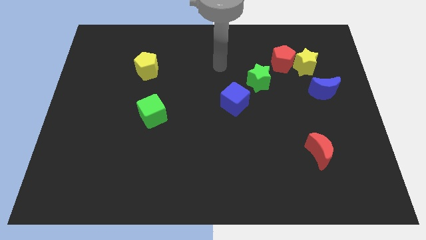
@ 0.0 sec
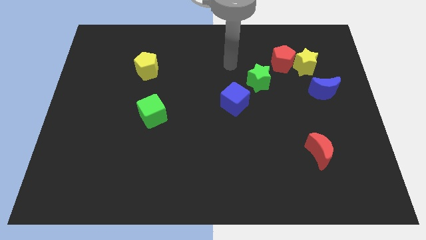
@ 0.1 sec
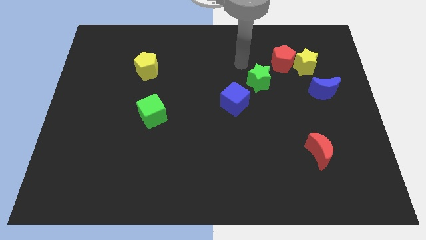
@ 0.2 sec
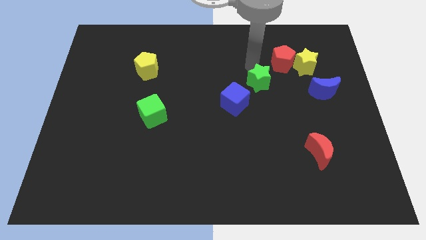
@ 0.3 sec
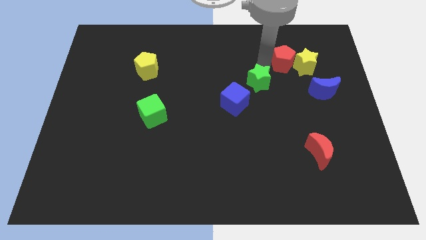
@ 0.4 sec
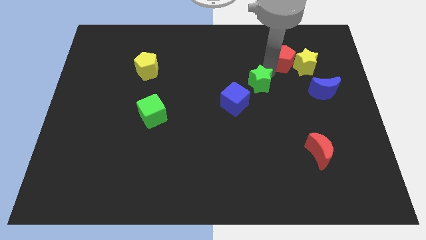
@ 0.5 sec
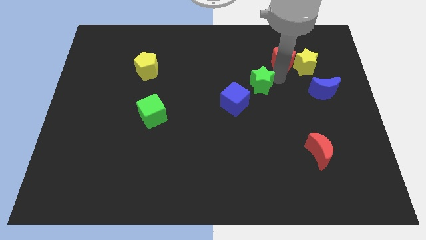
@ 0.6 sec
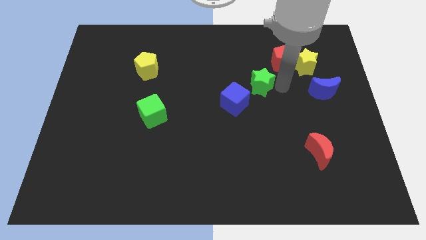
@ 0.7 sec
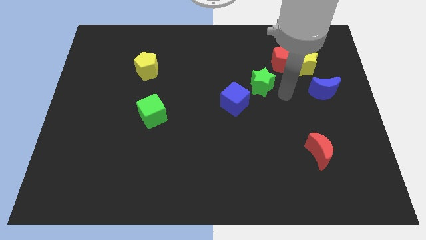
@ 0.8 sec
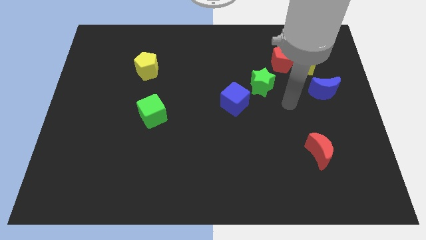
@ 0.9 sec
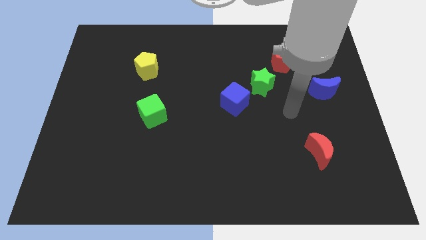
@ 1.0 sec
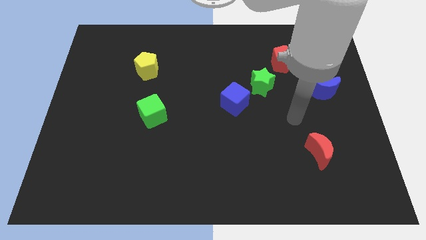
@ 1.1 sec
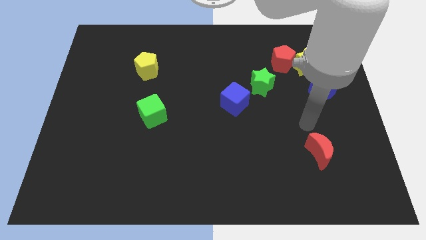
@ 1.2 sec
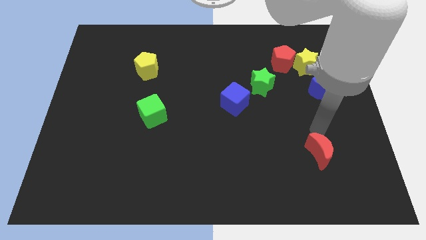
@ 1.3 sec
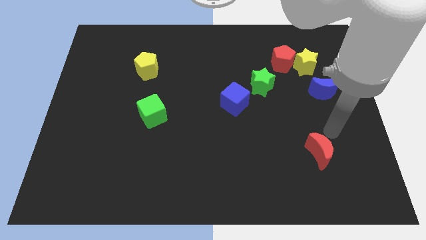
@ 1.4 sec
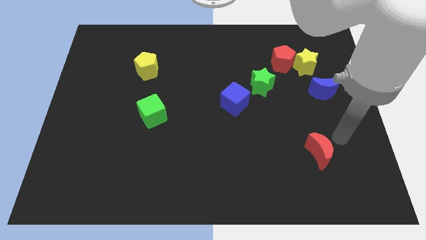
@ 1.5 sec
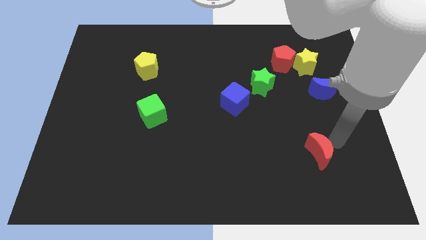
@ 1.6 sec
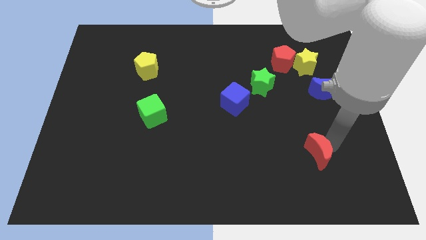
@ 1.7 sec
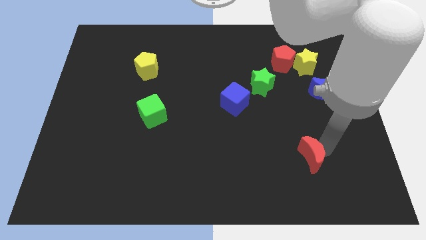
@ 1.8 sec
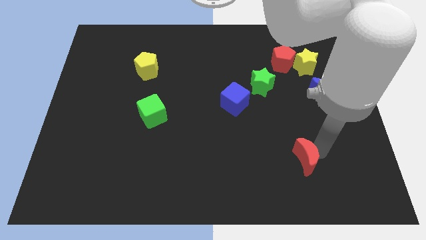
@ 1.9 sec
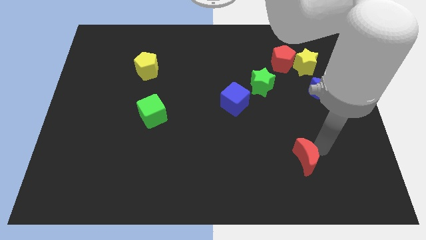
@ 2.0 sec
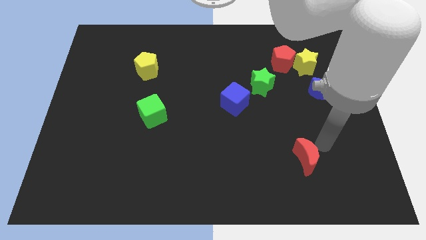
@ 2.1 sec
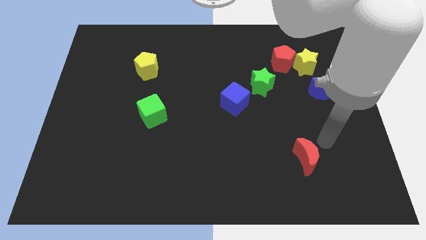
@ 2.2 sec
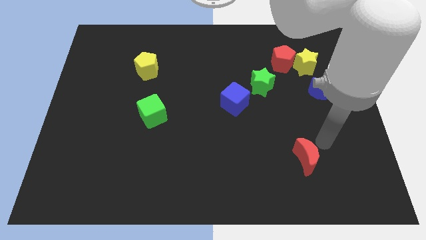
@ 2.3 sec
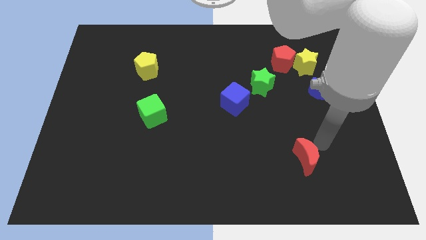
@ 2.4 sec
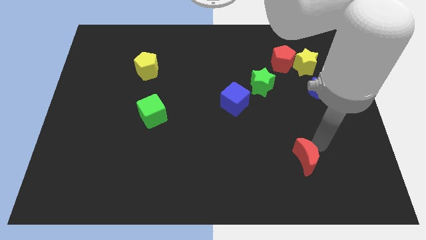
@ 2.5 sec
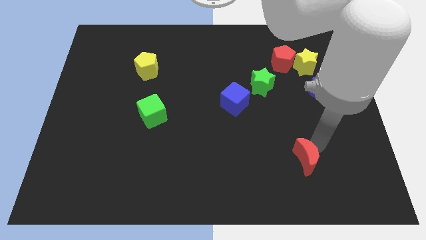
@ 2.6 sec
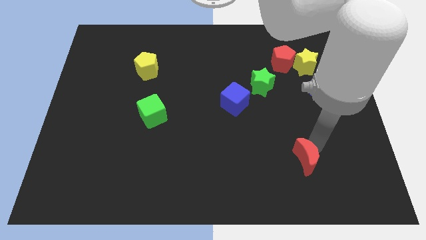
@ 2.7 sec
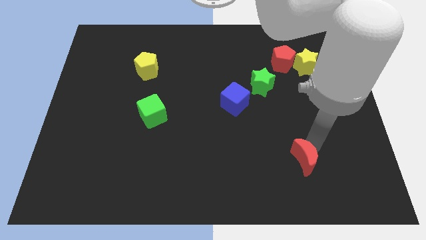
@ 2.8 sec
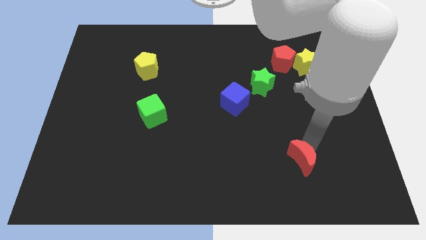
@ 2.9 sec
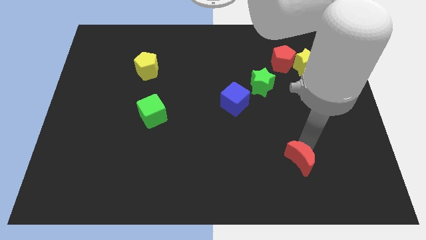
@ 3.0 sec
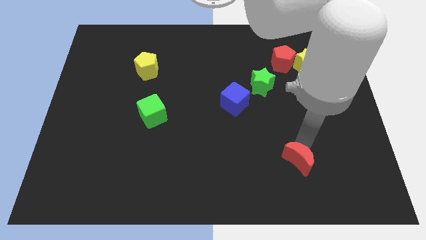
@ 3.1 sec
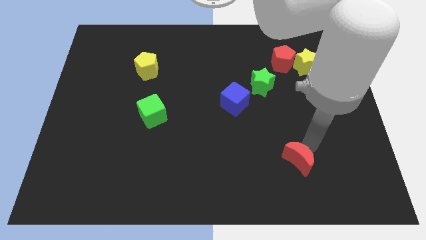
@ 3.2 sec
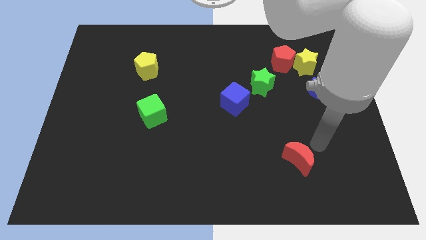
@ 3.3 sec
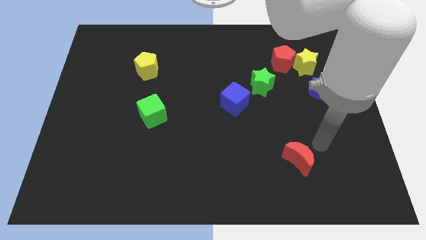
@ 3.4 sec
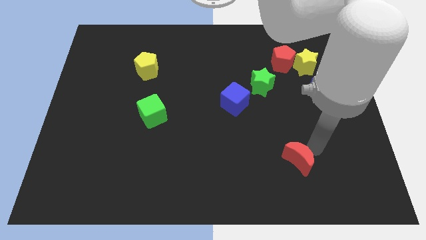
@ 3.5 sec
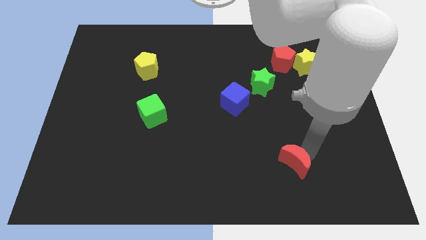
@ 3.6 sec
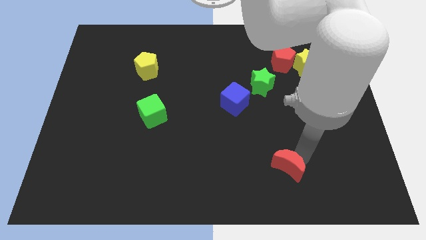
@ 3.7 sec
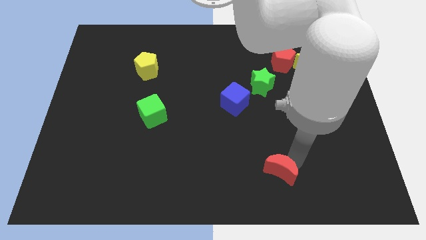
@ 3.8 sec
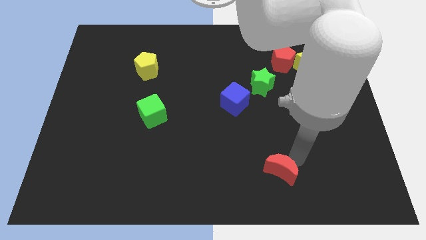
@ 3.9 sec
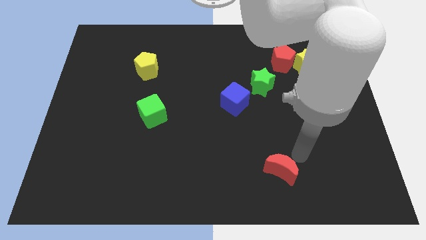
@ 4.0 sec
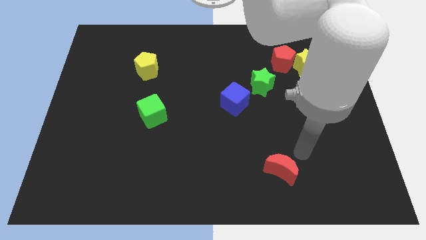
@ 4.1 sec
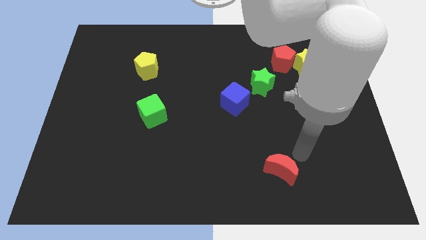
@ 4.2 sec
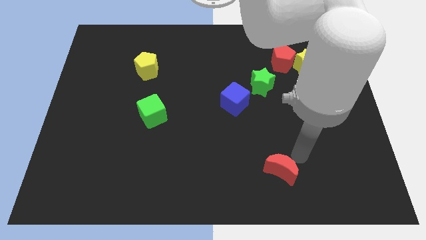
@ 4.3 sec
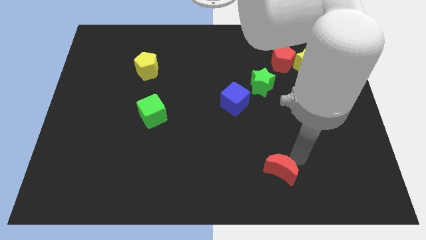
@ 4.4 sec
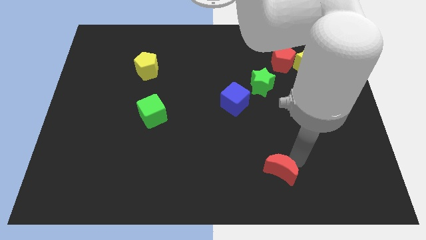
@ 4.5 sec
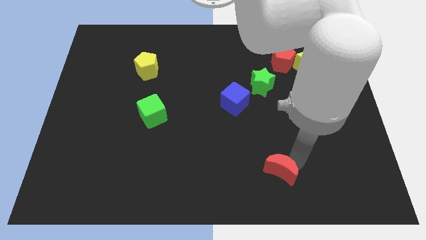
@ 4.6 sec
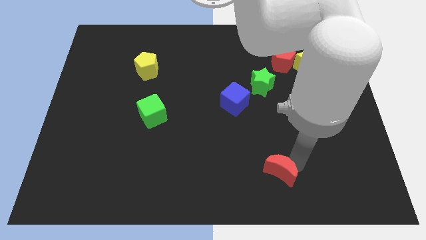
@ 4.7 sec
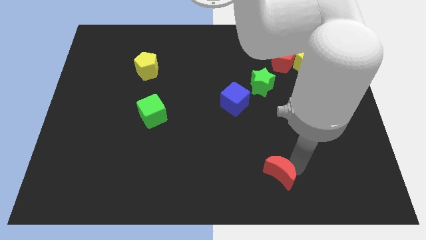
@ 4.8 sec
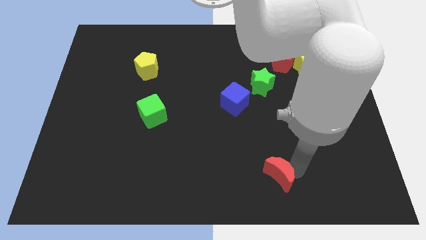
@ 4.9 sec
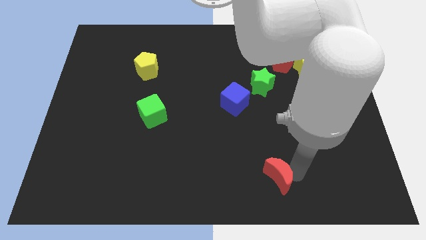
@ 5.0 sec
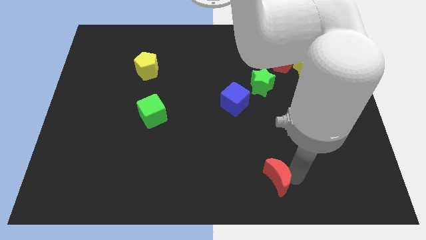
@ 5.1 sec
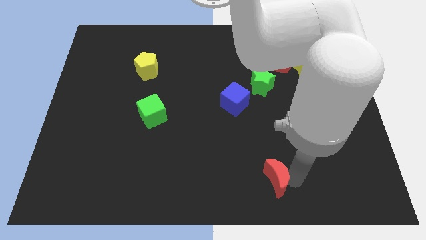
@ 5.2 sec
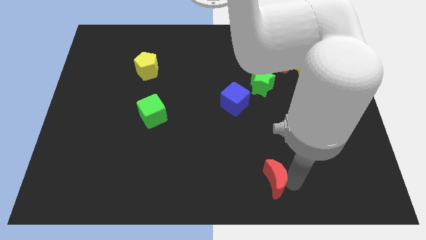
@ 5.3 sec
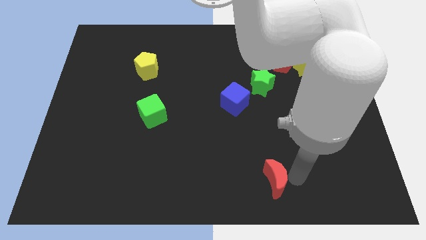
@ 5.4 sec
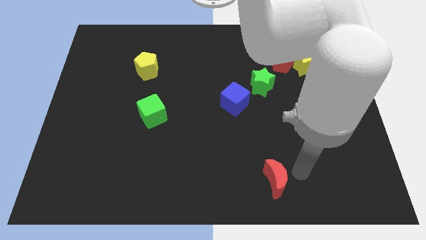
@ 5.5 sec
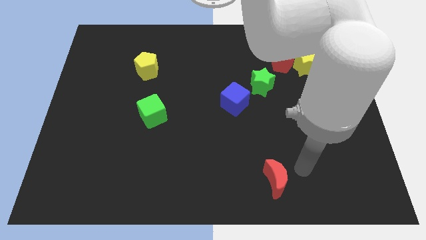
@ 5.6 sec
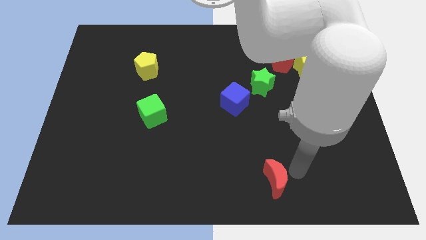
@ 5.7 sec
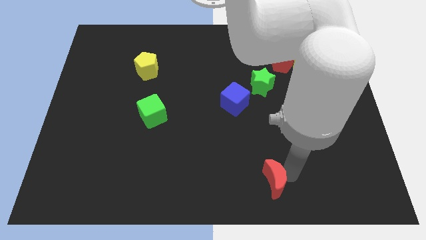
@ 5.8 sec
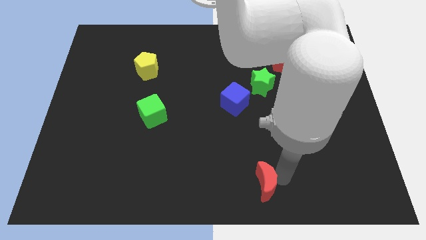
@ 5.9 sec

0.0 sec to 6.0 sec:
put the red moon to the bottom side
